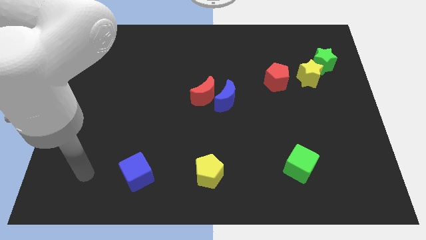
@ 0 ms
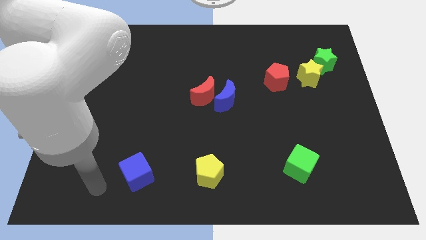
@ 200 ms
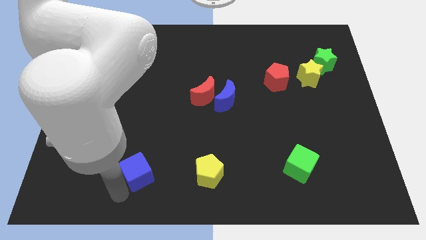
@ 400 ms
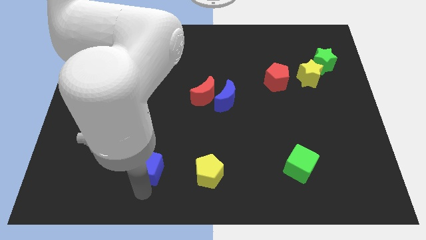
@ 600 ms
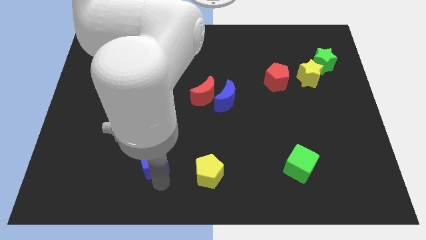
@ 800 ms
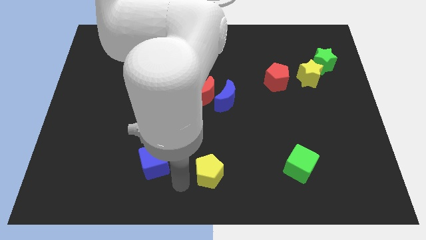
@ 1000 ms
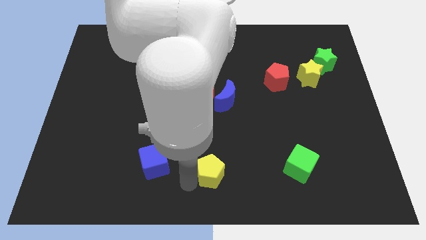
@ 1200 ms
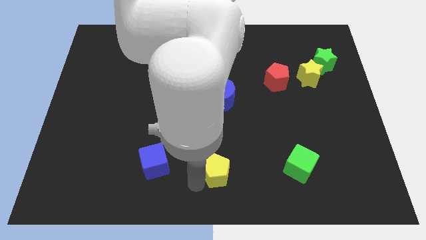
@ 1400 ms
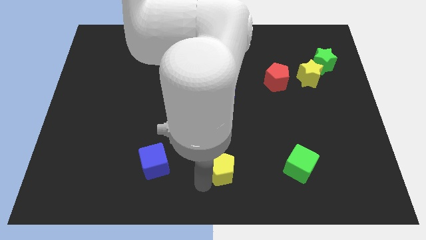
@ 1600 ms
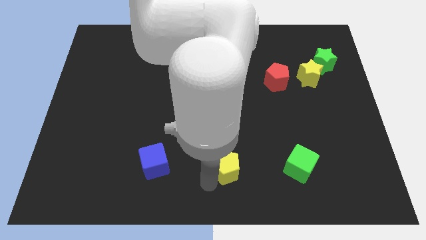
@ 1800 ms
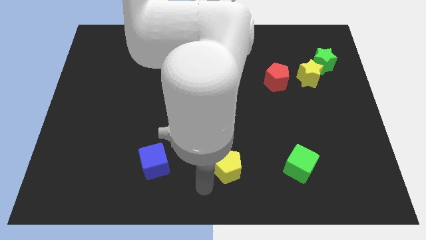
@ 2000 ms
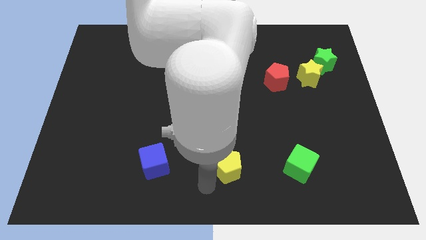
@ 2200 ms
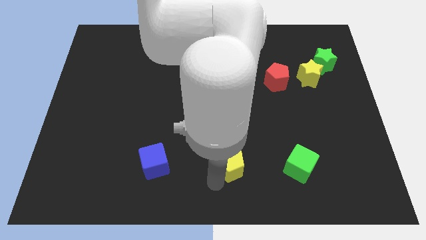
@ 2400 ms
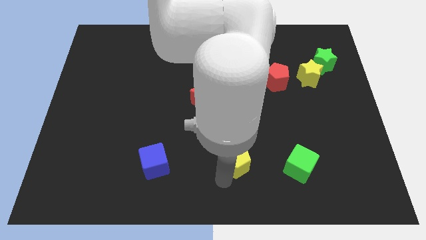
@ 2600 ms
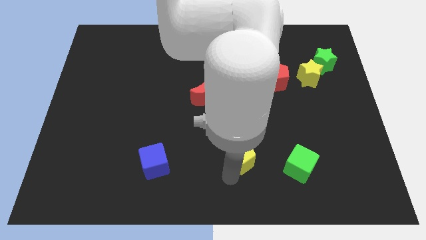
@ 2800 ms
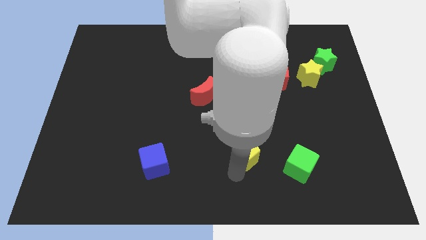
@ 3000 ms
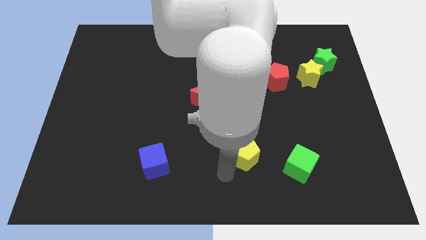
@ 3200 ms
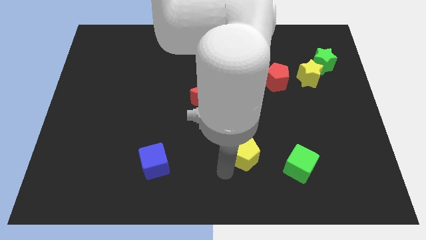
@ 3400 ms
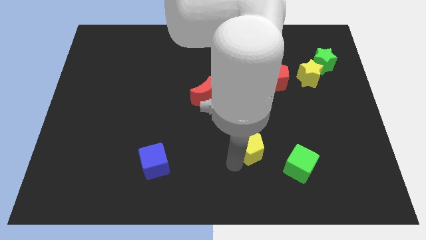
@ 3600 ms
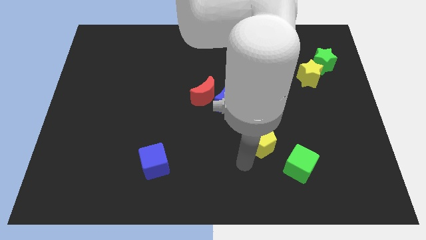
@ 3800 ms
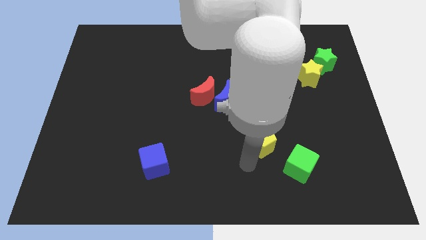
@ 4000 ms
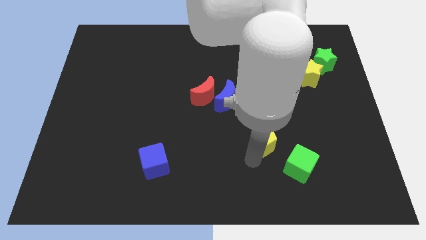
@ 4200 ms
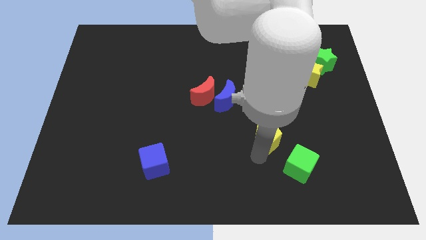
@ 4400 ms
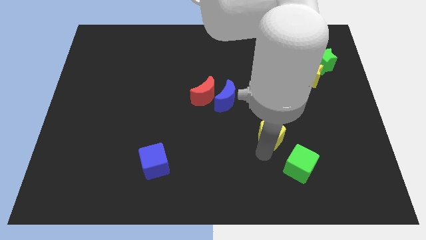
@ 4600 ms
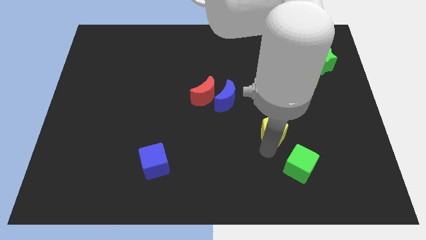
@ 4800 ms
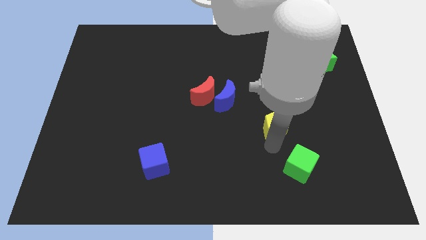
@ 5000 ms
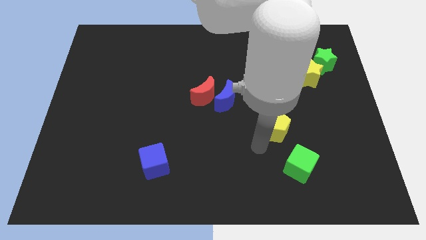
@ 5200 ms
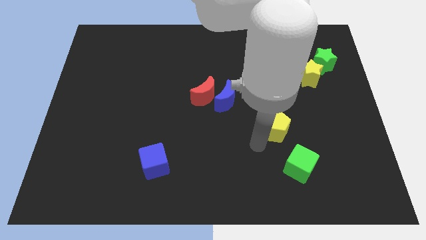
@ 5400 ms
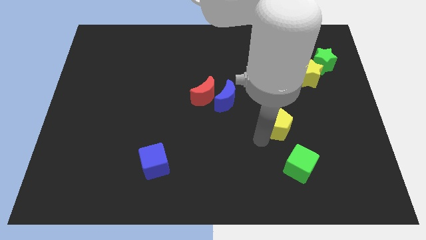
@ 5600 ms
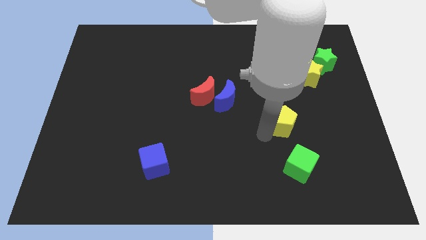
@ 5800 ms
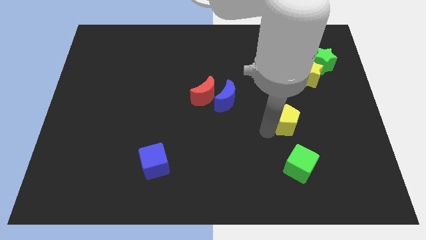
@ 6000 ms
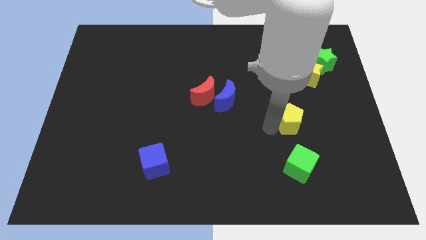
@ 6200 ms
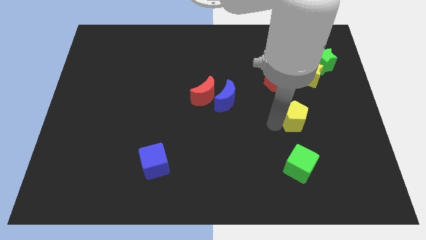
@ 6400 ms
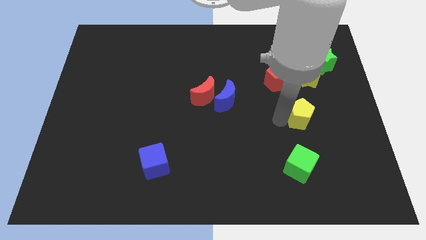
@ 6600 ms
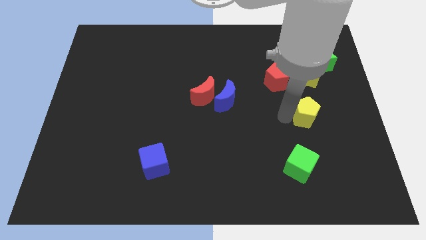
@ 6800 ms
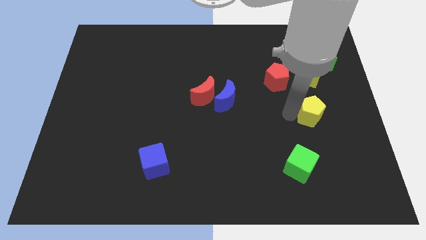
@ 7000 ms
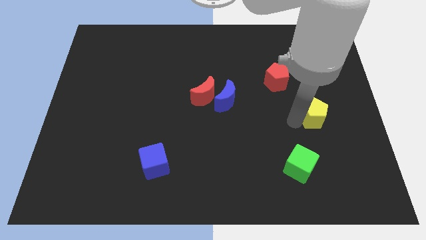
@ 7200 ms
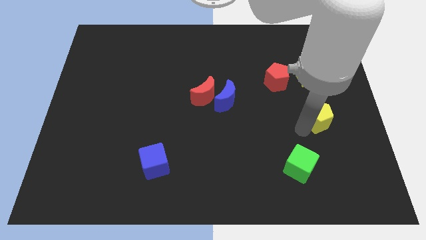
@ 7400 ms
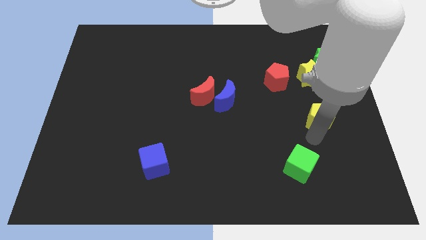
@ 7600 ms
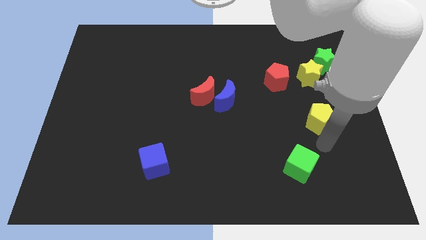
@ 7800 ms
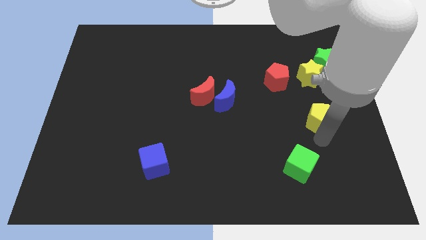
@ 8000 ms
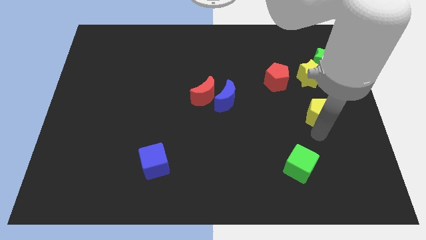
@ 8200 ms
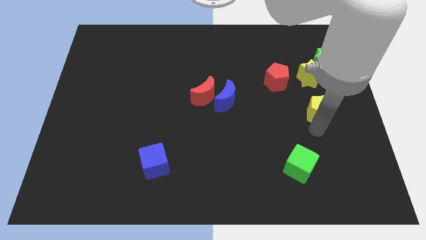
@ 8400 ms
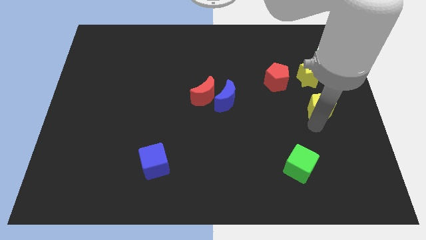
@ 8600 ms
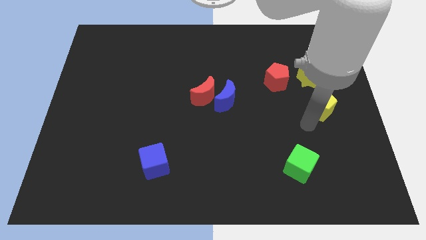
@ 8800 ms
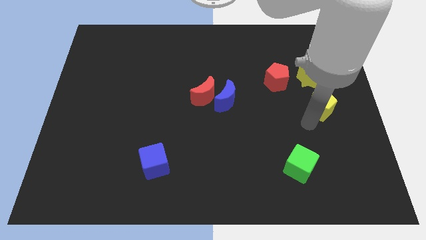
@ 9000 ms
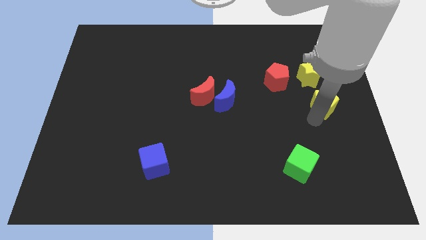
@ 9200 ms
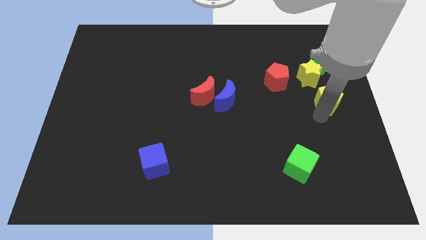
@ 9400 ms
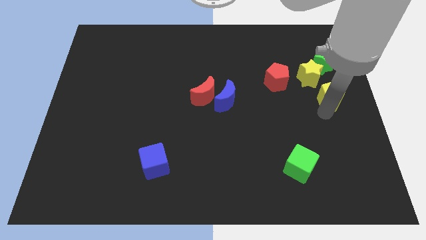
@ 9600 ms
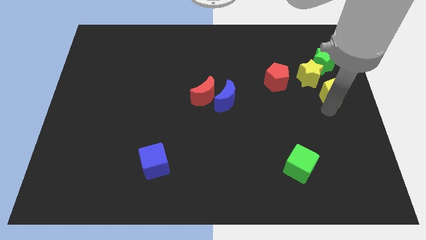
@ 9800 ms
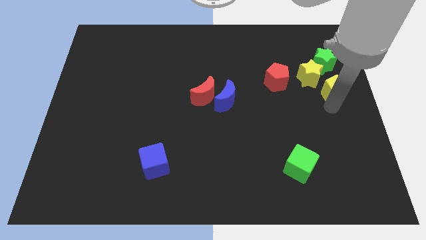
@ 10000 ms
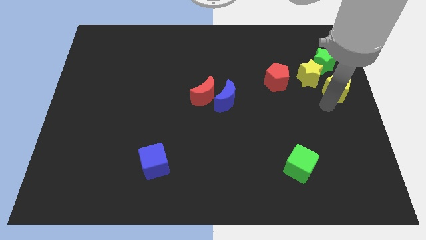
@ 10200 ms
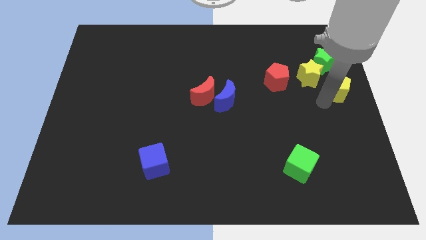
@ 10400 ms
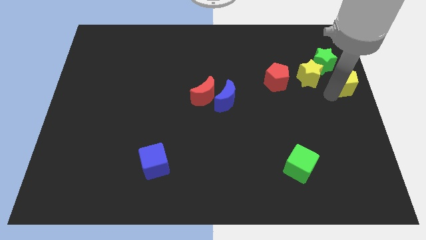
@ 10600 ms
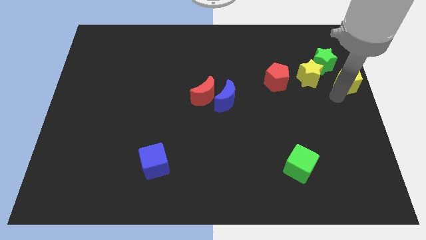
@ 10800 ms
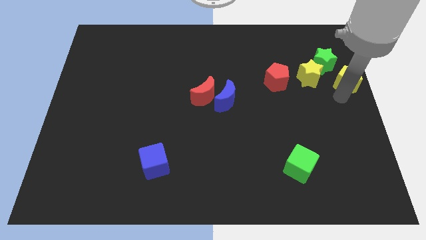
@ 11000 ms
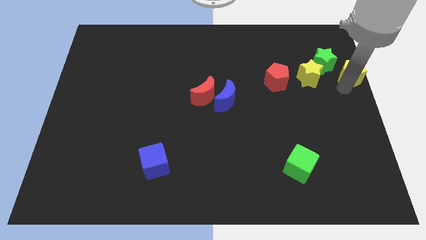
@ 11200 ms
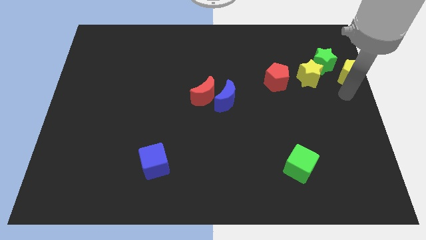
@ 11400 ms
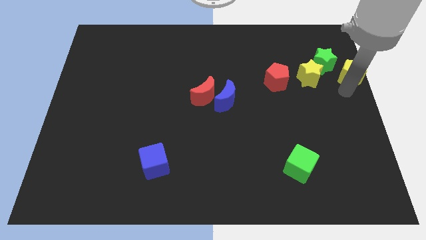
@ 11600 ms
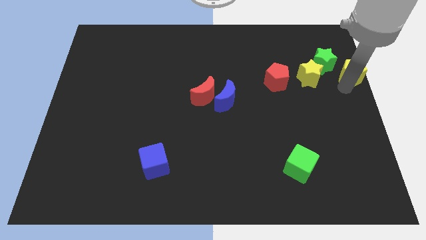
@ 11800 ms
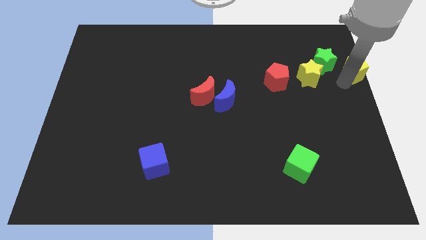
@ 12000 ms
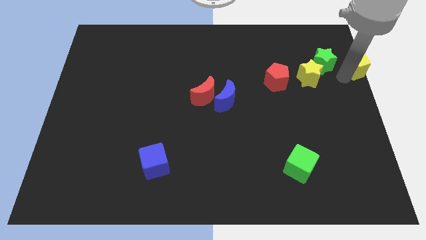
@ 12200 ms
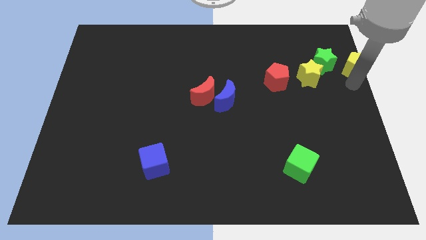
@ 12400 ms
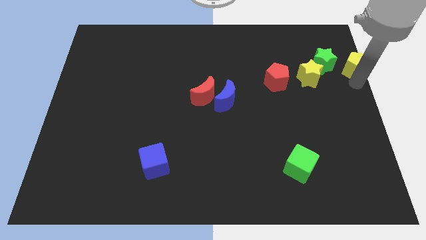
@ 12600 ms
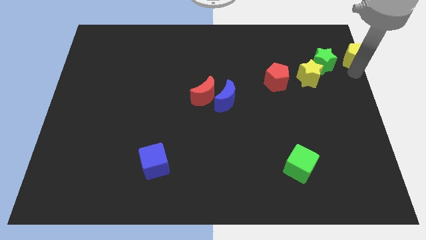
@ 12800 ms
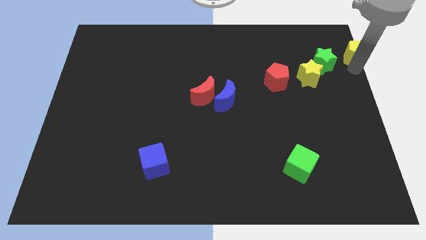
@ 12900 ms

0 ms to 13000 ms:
slide the yellow pentagon to the top right corner
